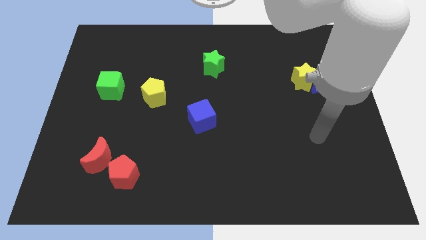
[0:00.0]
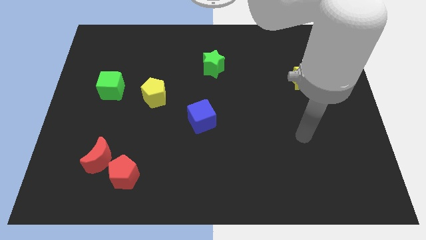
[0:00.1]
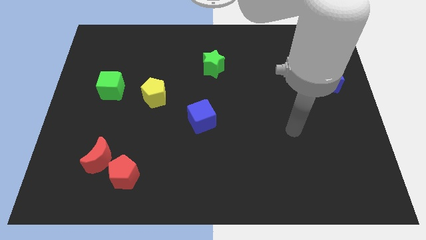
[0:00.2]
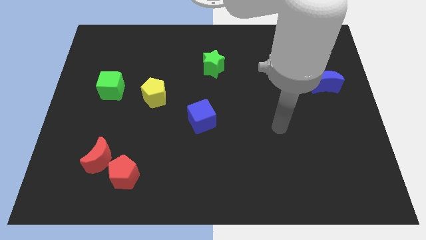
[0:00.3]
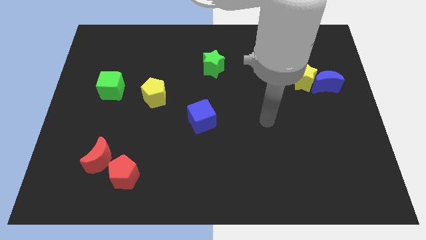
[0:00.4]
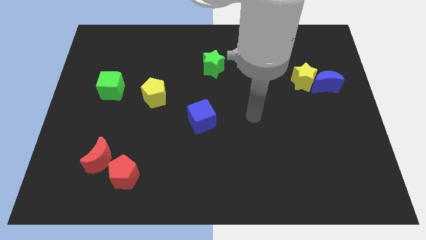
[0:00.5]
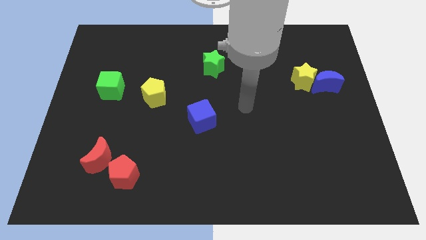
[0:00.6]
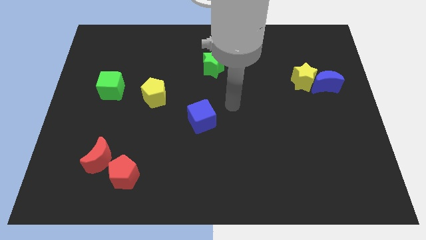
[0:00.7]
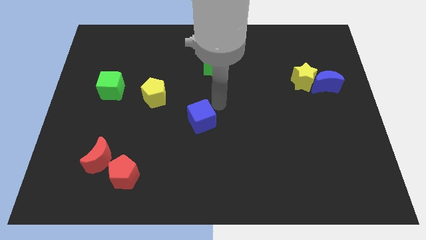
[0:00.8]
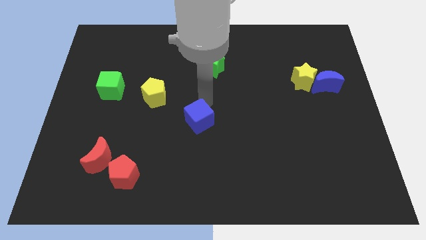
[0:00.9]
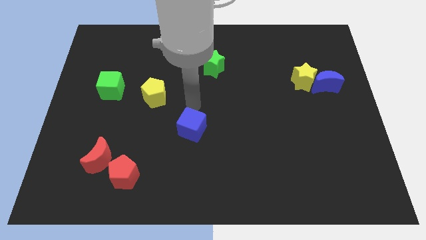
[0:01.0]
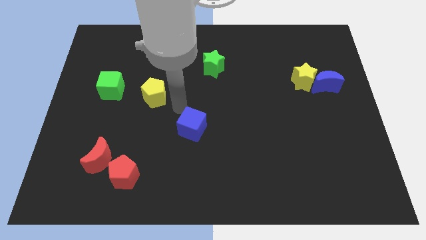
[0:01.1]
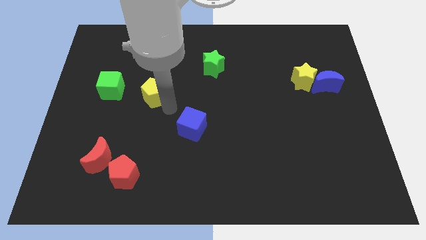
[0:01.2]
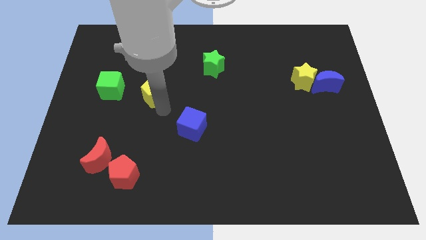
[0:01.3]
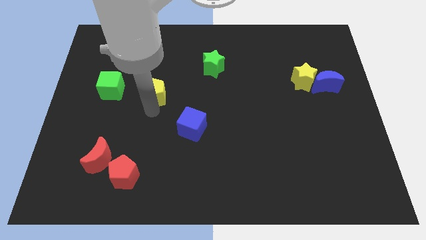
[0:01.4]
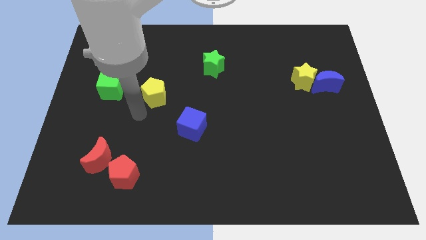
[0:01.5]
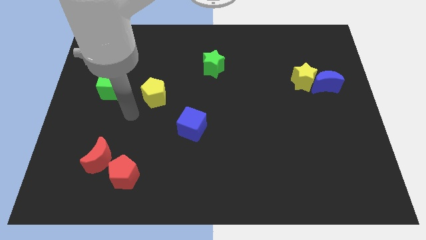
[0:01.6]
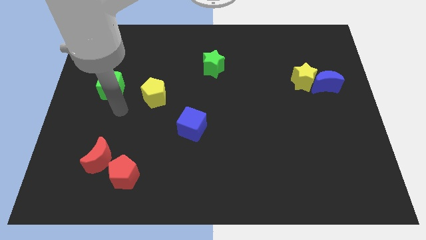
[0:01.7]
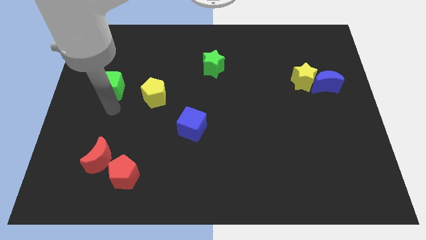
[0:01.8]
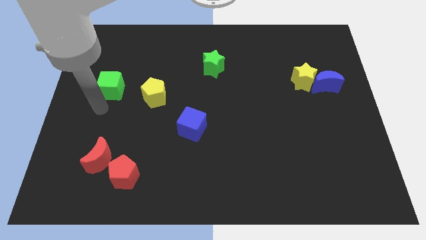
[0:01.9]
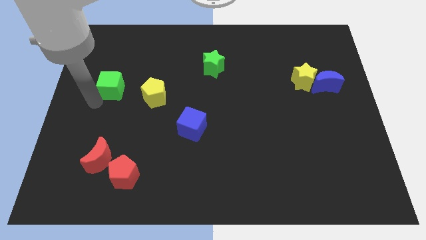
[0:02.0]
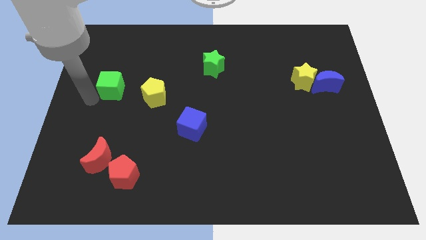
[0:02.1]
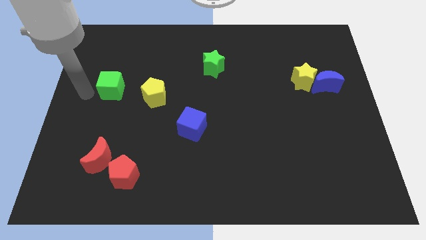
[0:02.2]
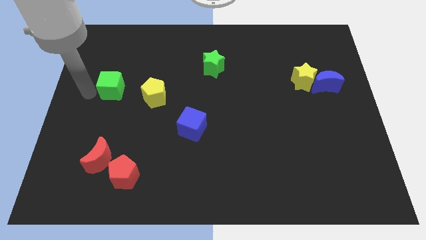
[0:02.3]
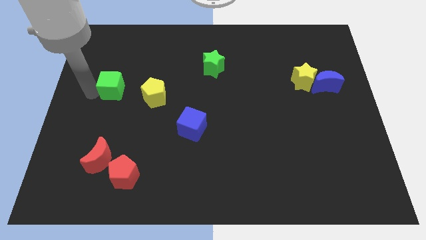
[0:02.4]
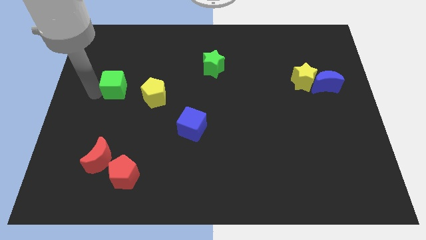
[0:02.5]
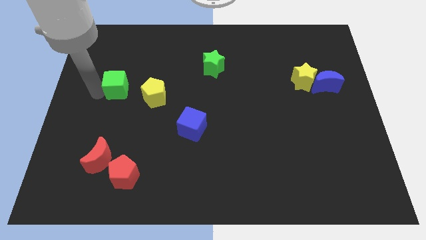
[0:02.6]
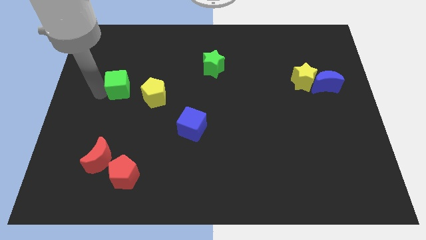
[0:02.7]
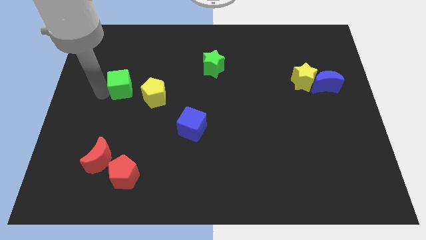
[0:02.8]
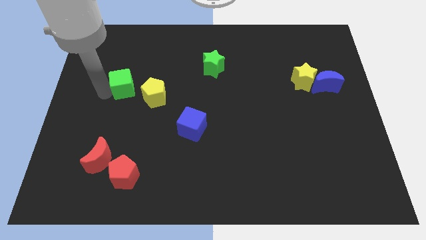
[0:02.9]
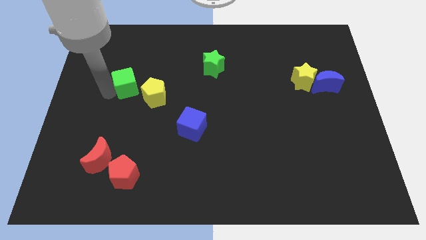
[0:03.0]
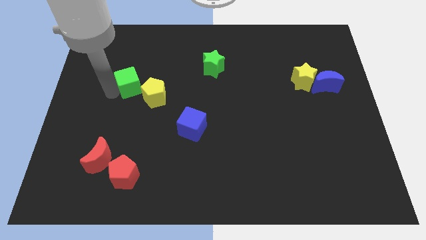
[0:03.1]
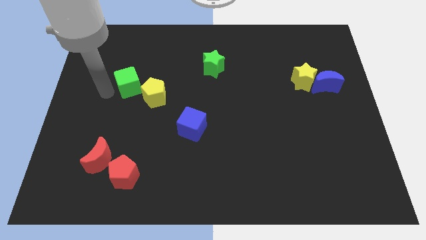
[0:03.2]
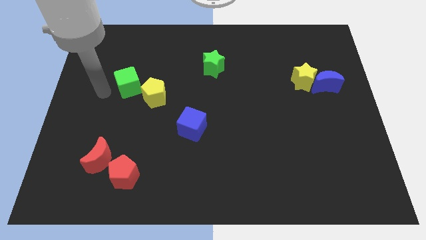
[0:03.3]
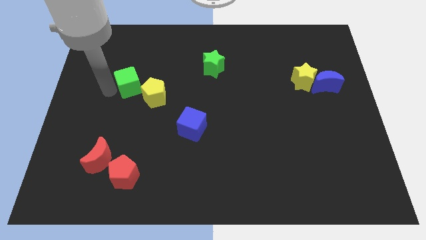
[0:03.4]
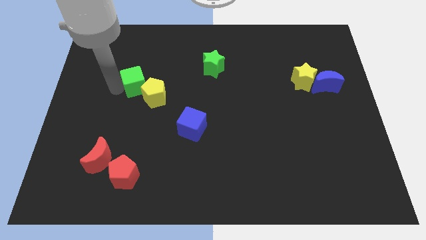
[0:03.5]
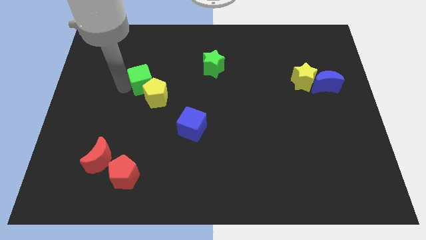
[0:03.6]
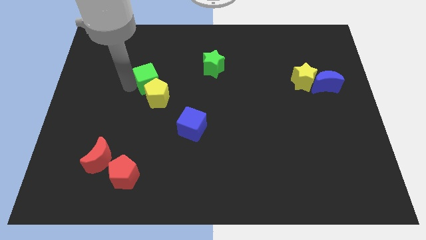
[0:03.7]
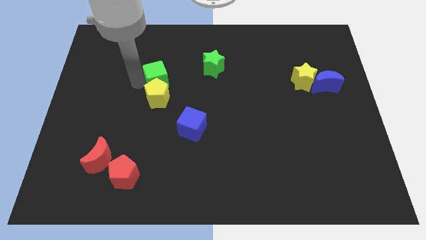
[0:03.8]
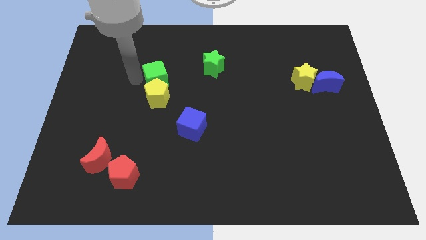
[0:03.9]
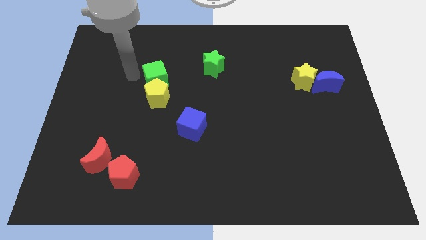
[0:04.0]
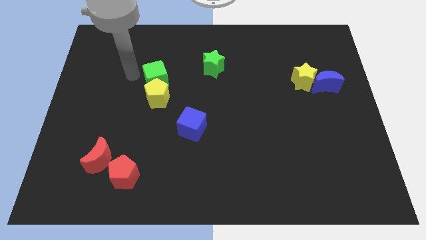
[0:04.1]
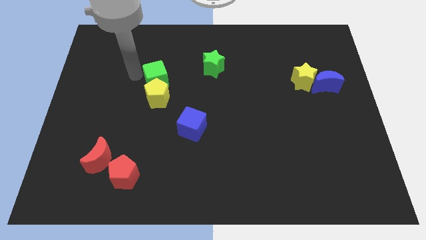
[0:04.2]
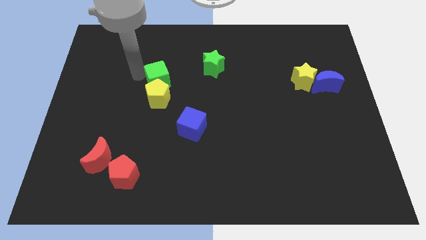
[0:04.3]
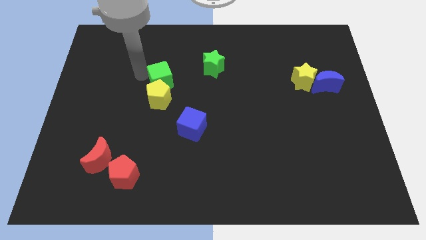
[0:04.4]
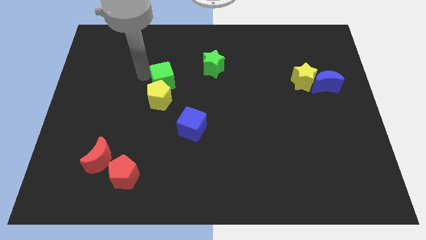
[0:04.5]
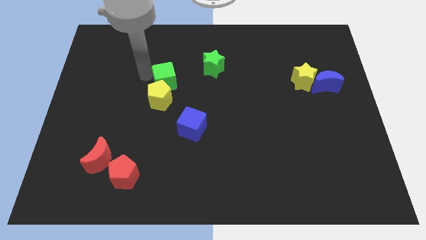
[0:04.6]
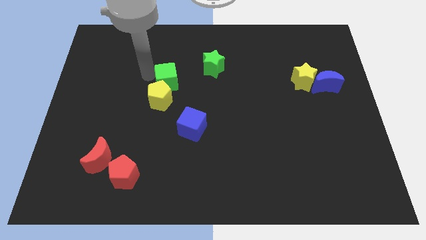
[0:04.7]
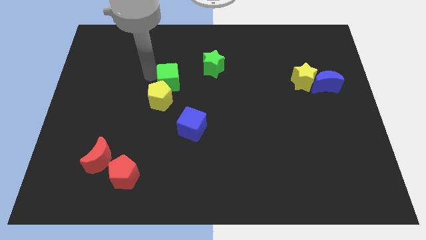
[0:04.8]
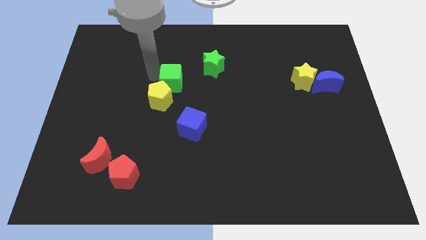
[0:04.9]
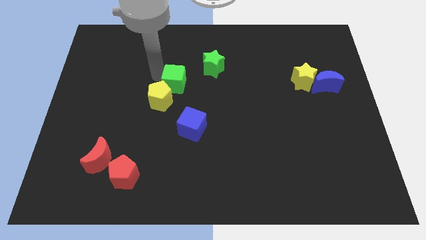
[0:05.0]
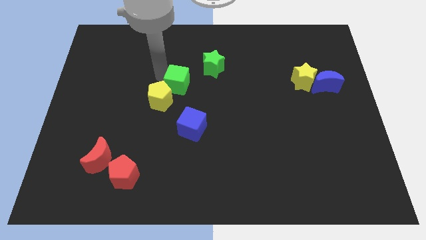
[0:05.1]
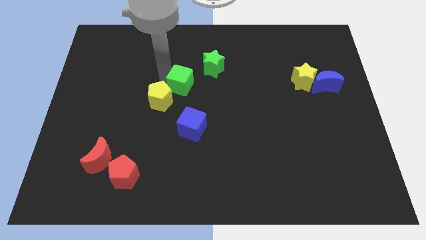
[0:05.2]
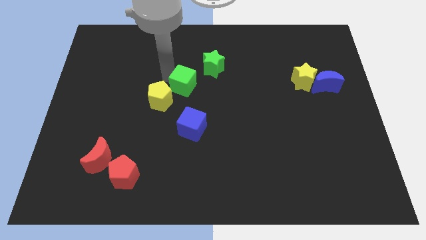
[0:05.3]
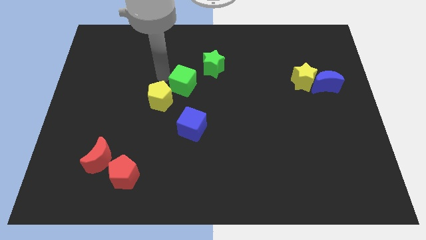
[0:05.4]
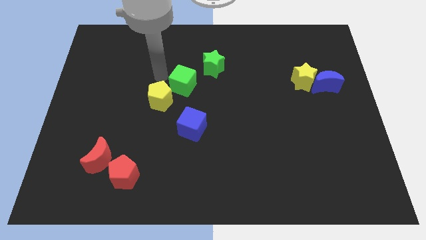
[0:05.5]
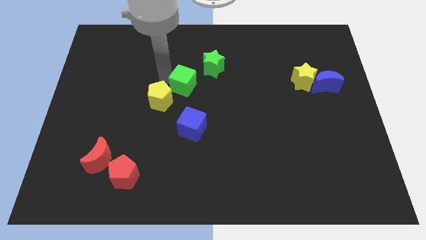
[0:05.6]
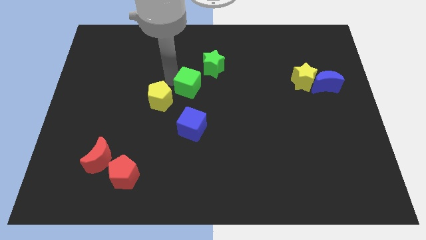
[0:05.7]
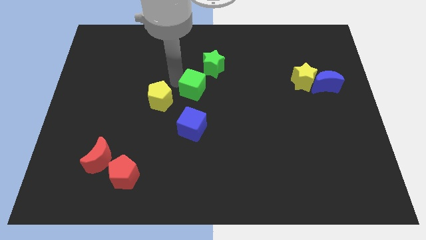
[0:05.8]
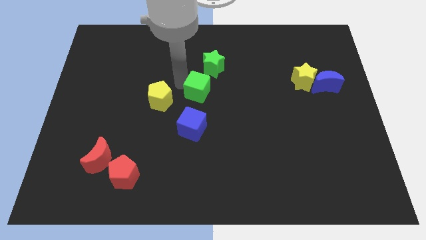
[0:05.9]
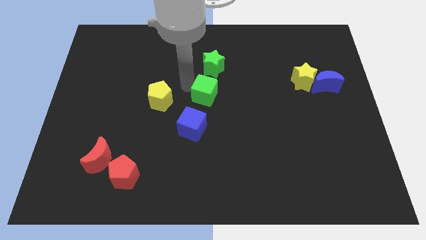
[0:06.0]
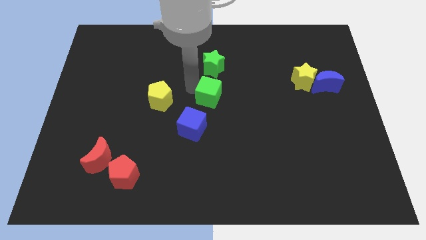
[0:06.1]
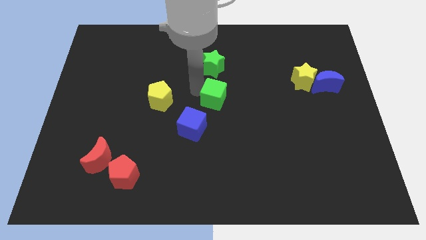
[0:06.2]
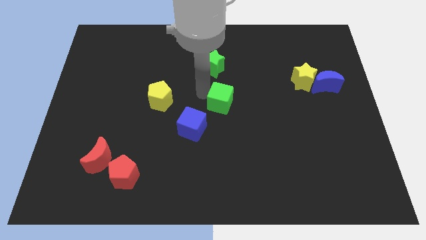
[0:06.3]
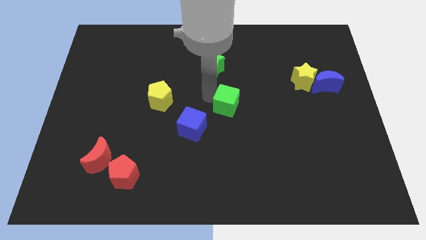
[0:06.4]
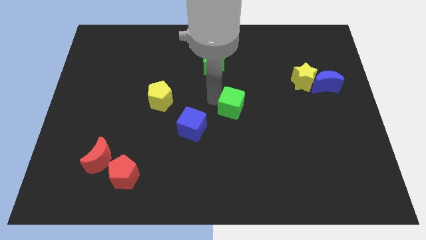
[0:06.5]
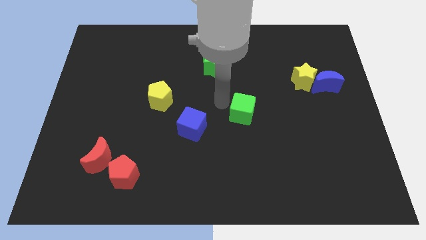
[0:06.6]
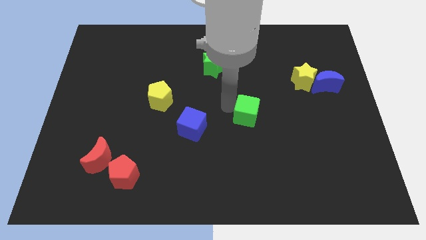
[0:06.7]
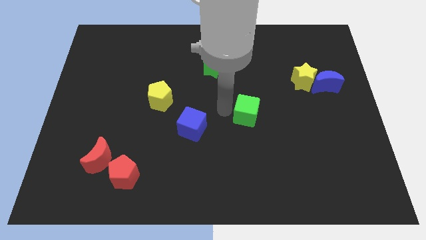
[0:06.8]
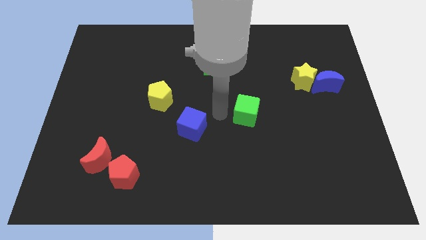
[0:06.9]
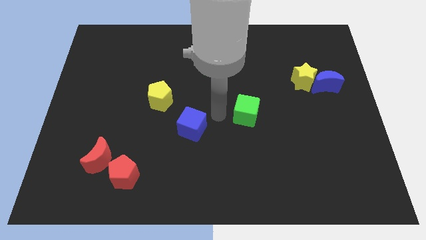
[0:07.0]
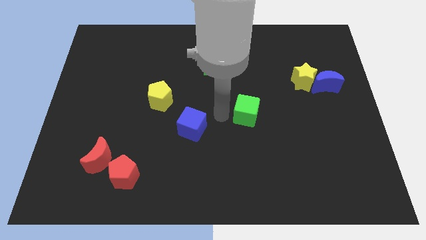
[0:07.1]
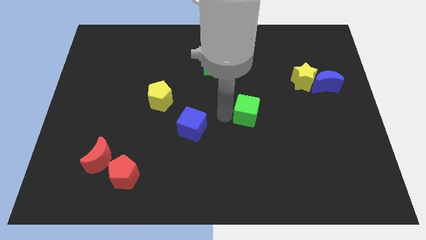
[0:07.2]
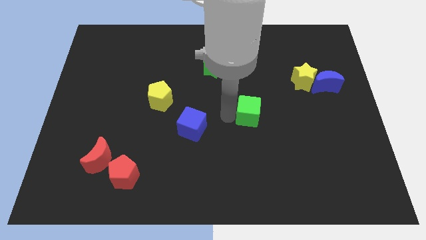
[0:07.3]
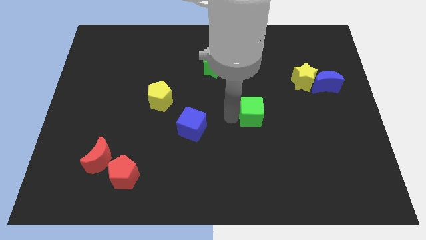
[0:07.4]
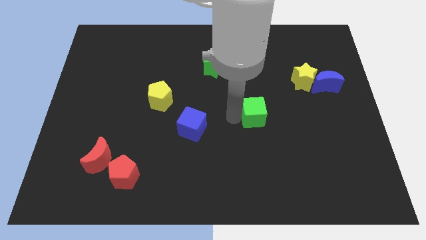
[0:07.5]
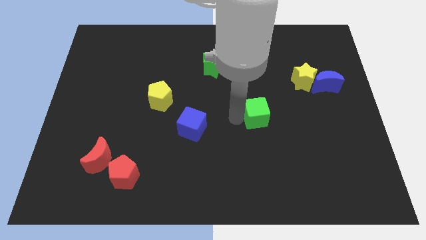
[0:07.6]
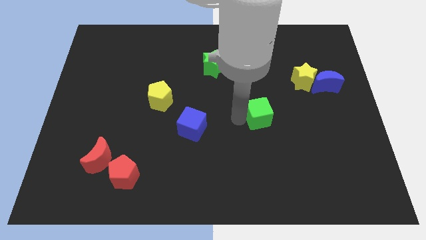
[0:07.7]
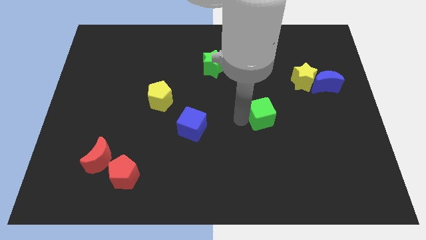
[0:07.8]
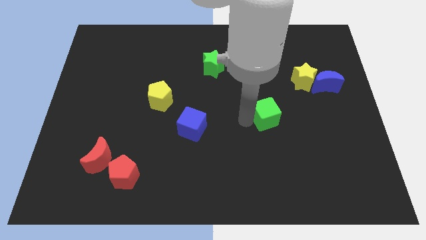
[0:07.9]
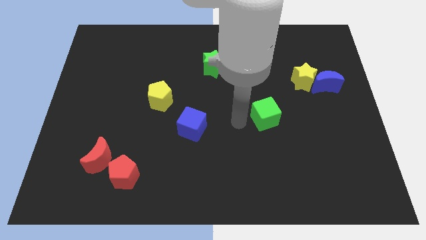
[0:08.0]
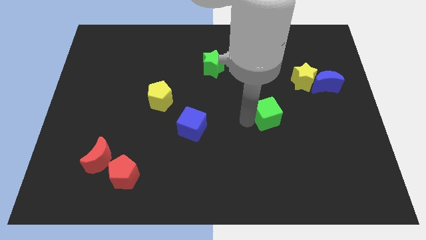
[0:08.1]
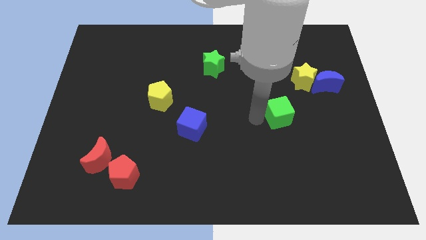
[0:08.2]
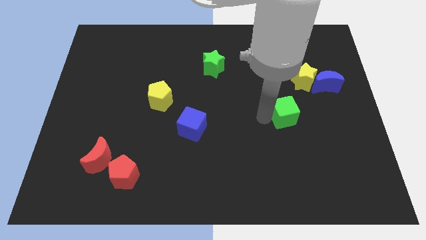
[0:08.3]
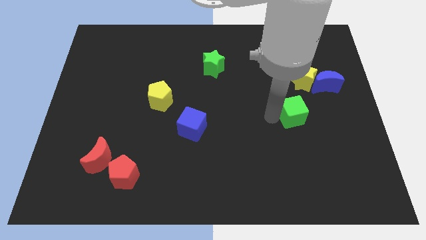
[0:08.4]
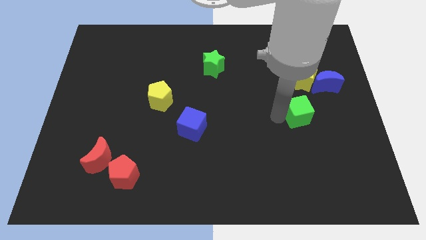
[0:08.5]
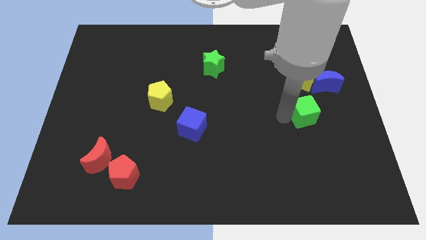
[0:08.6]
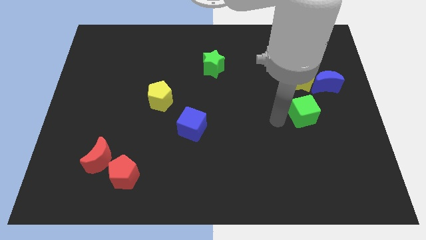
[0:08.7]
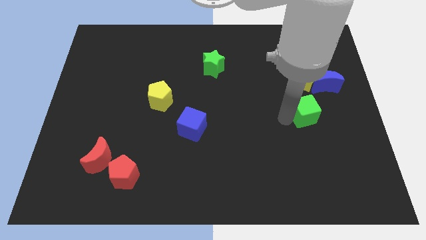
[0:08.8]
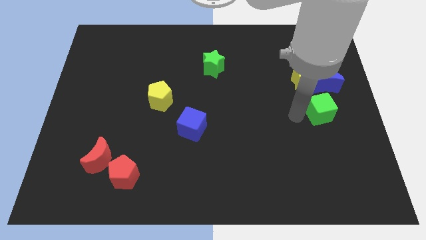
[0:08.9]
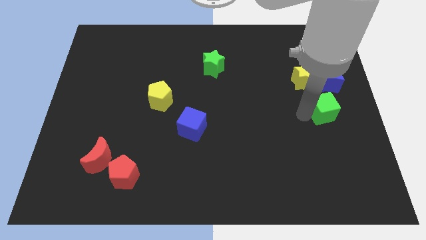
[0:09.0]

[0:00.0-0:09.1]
slide the green cube to the right side
